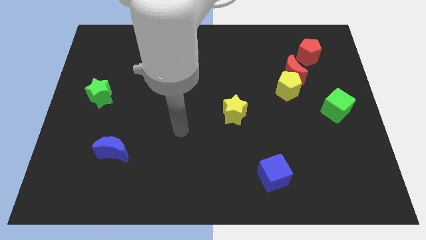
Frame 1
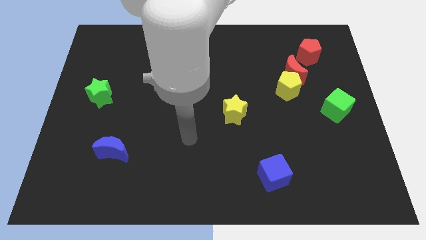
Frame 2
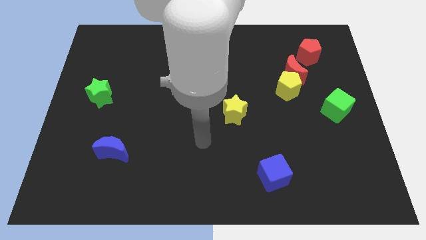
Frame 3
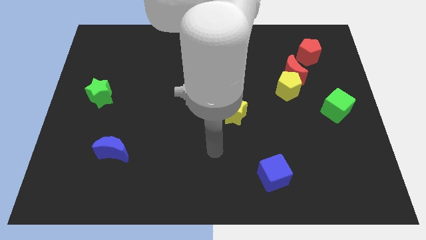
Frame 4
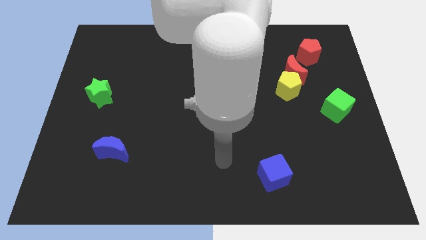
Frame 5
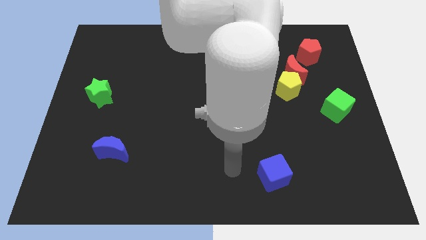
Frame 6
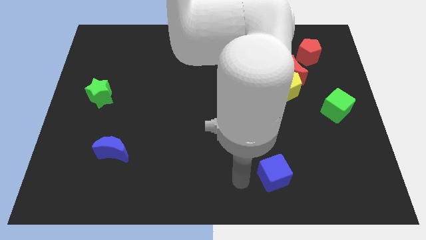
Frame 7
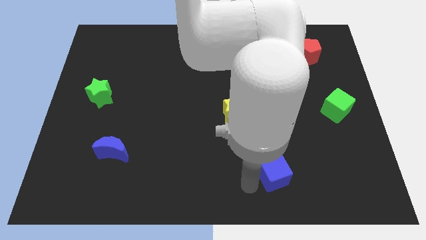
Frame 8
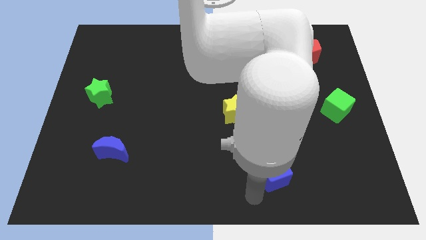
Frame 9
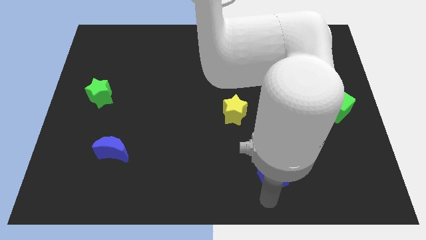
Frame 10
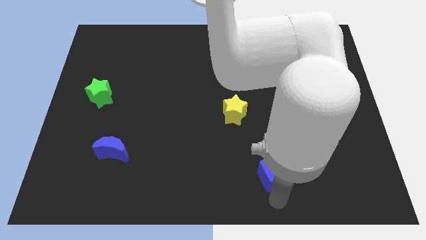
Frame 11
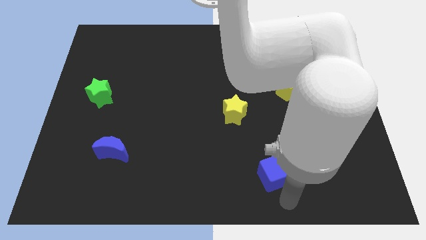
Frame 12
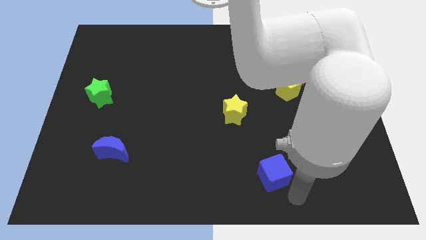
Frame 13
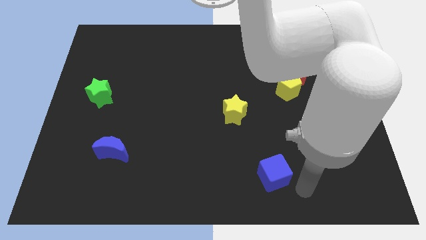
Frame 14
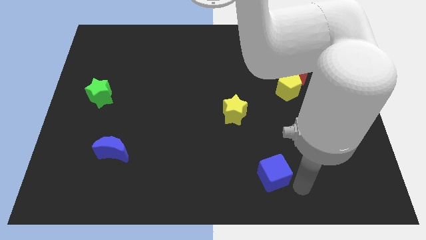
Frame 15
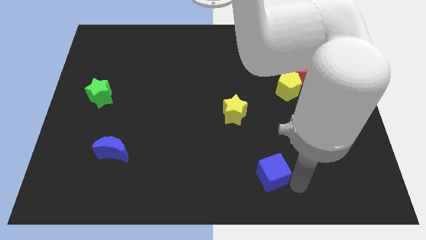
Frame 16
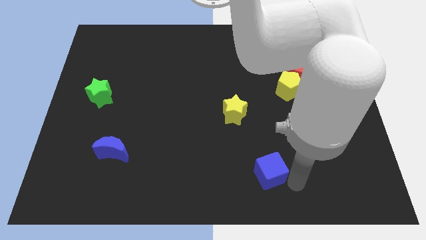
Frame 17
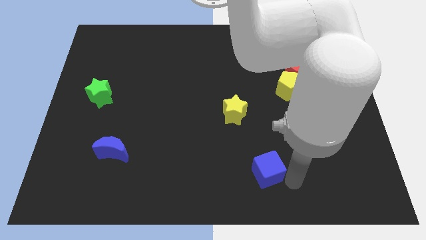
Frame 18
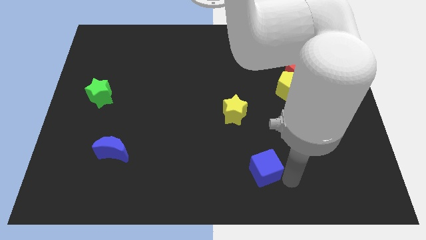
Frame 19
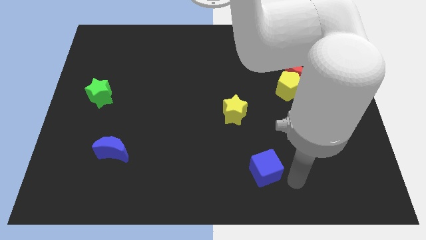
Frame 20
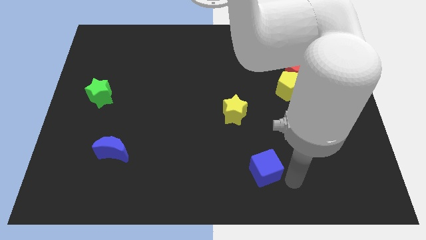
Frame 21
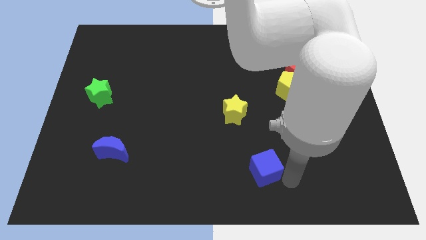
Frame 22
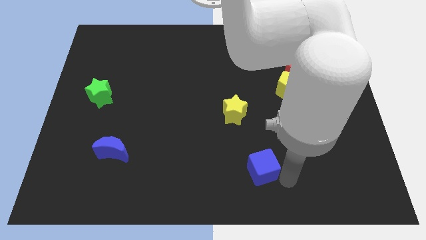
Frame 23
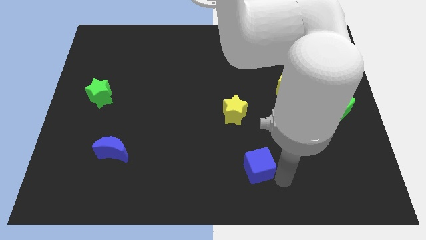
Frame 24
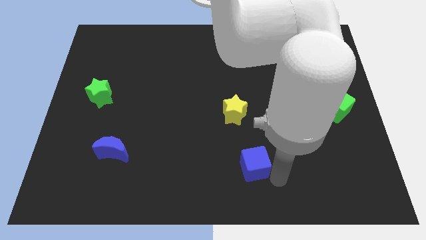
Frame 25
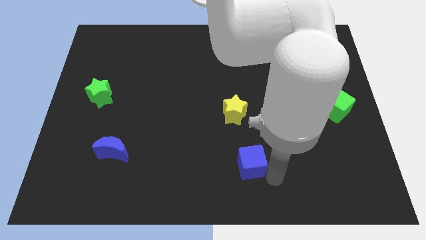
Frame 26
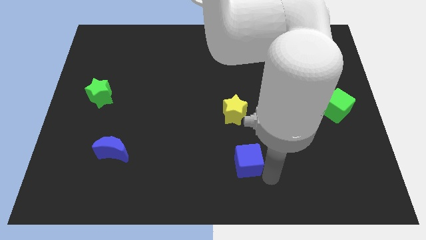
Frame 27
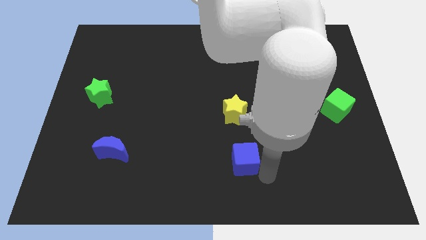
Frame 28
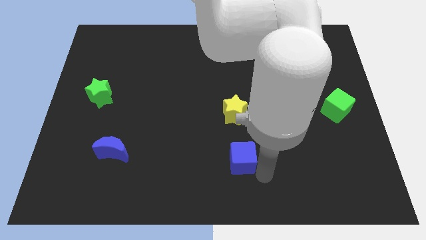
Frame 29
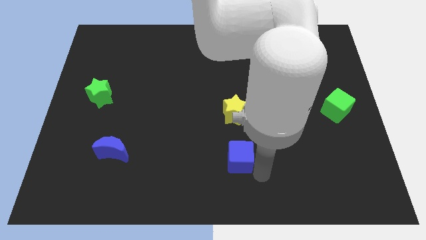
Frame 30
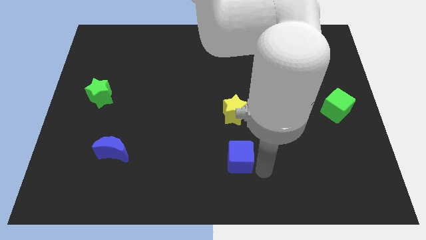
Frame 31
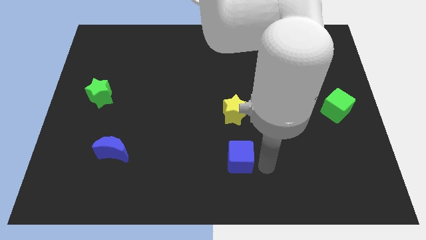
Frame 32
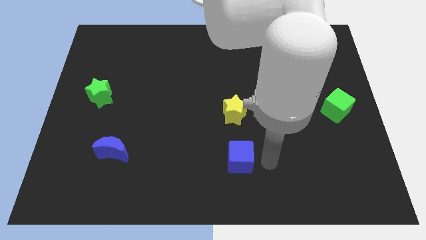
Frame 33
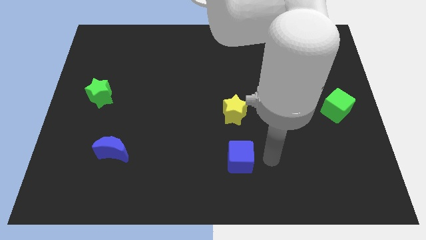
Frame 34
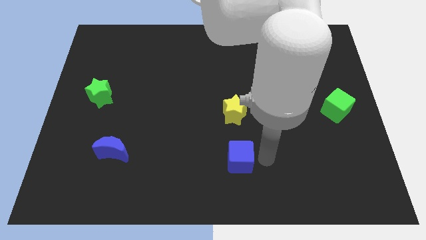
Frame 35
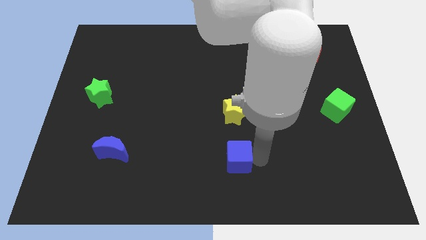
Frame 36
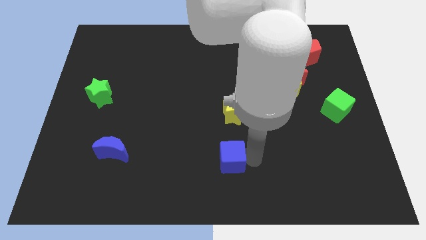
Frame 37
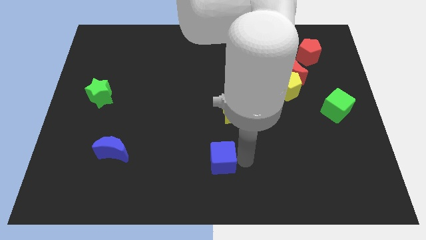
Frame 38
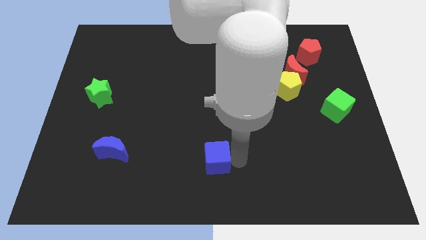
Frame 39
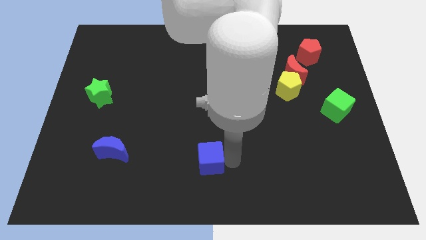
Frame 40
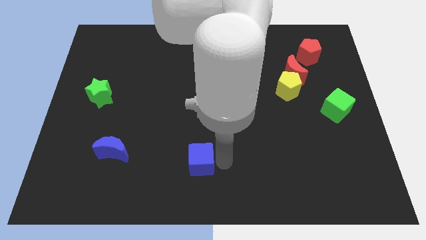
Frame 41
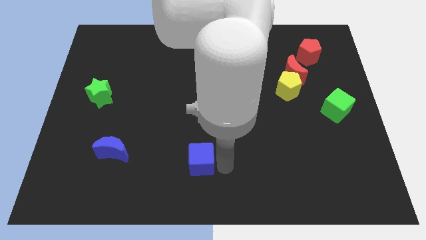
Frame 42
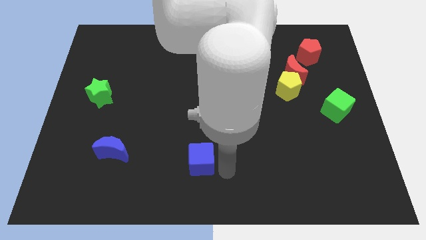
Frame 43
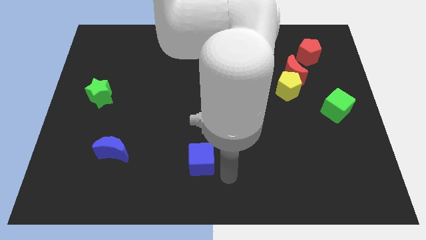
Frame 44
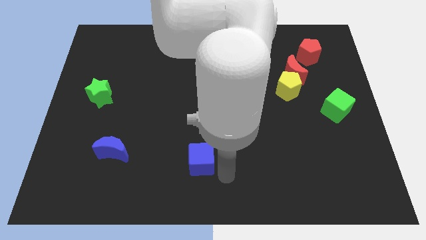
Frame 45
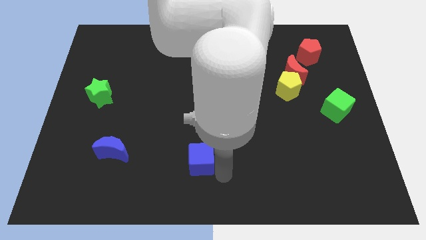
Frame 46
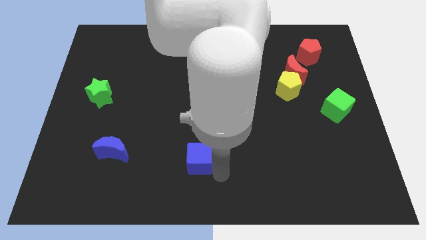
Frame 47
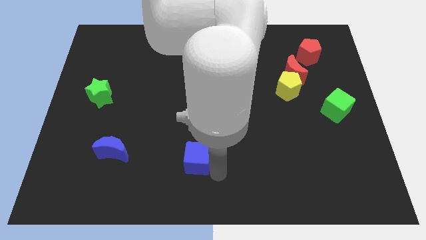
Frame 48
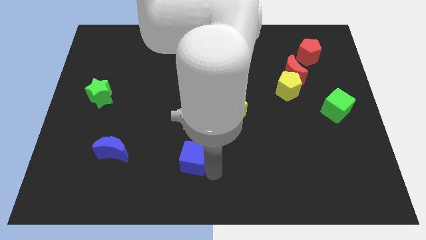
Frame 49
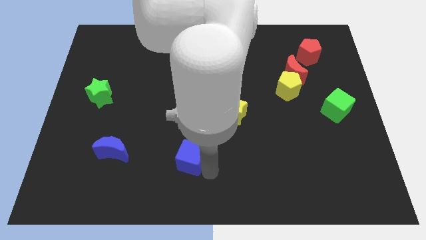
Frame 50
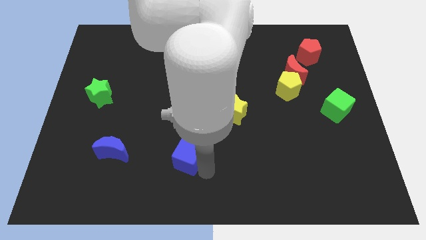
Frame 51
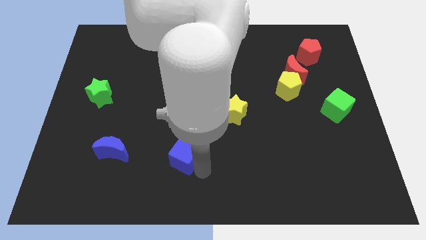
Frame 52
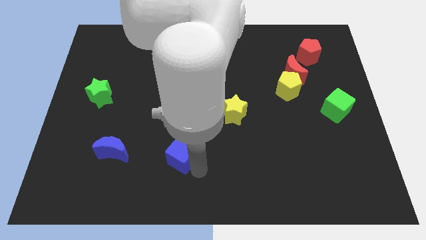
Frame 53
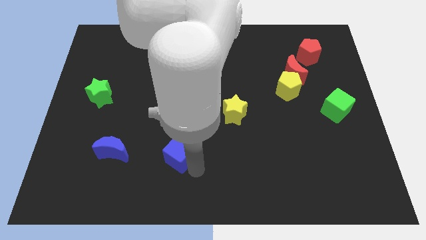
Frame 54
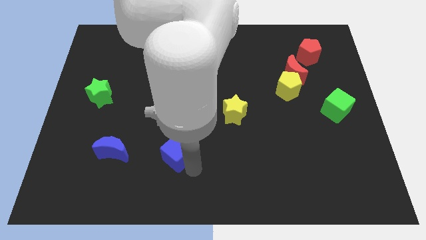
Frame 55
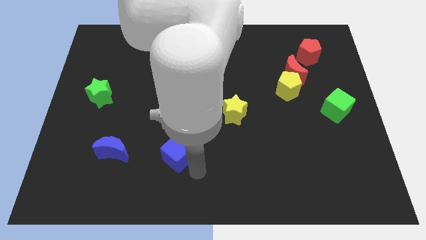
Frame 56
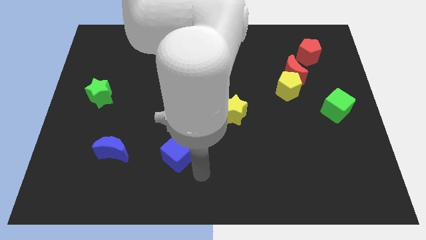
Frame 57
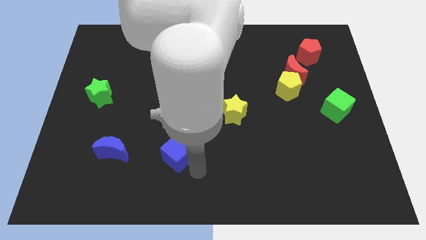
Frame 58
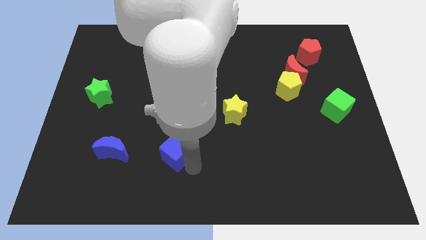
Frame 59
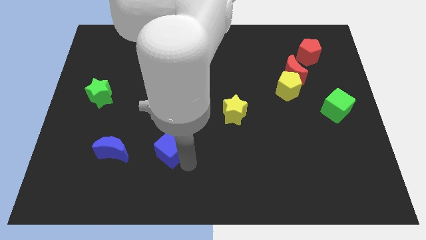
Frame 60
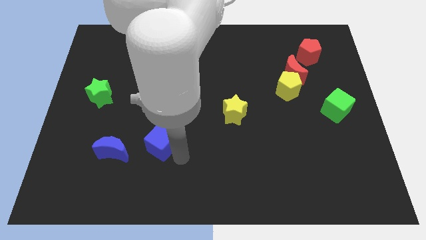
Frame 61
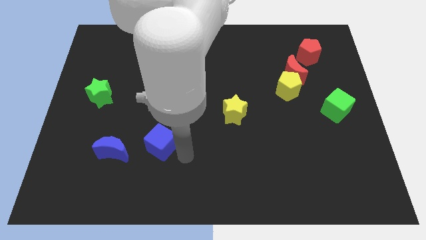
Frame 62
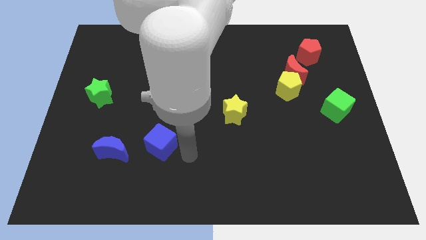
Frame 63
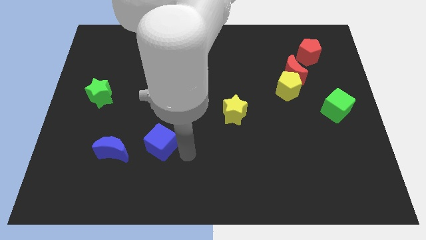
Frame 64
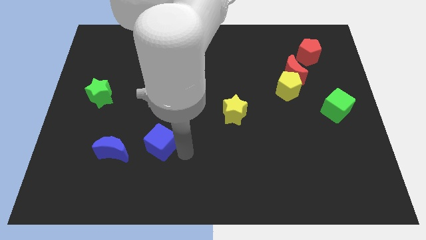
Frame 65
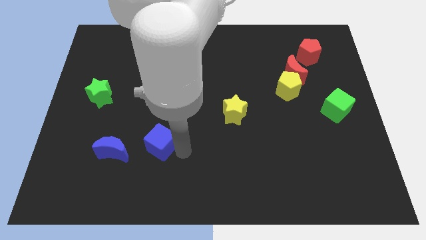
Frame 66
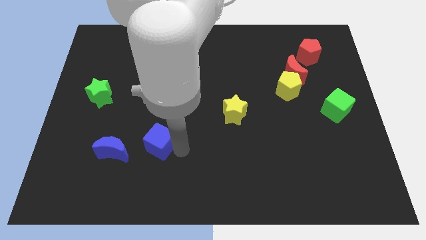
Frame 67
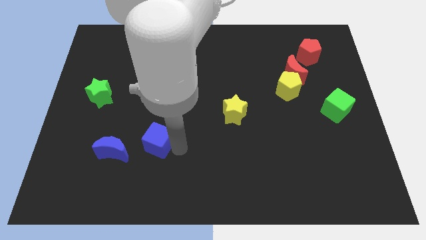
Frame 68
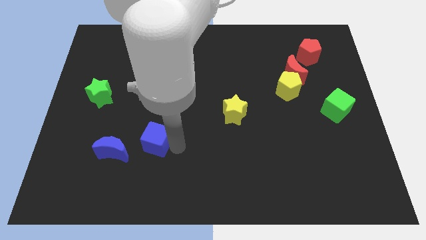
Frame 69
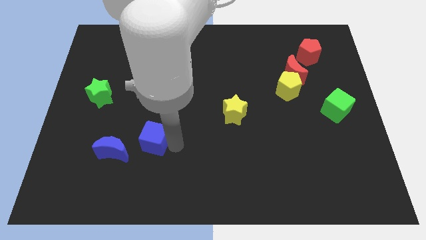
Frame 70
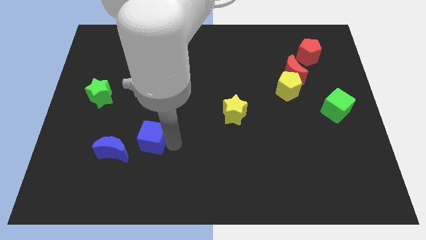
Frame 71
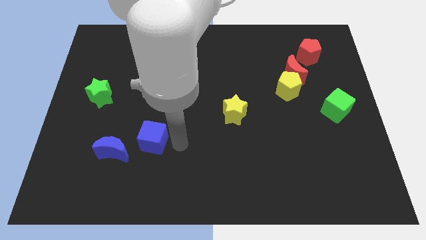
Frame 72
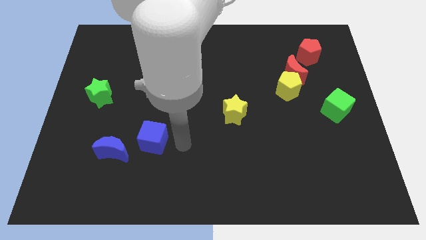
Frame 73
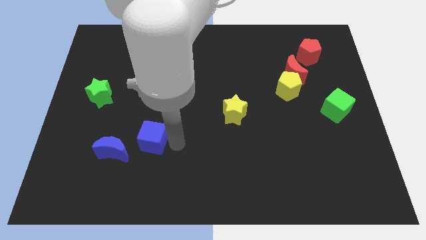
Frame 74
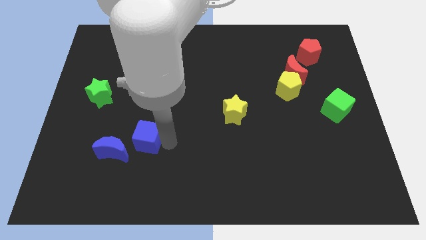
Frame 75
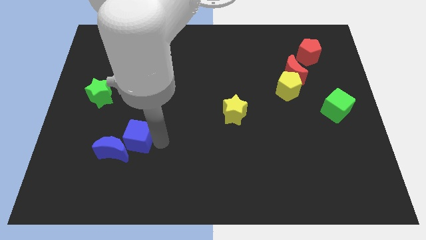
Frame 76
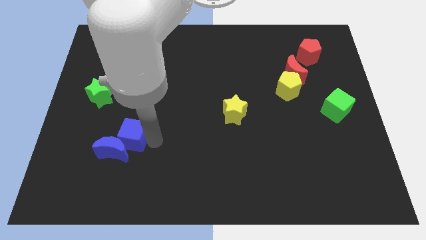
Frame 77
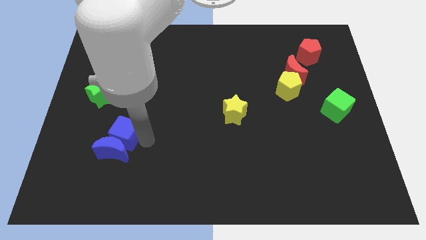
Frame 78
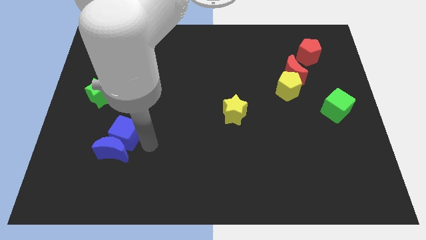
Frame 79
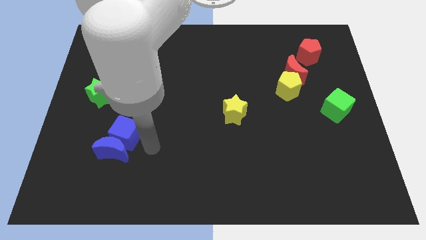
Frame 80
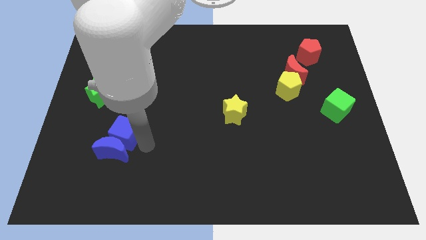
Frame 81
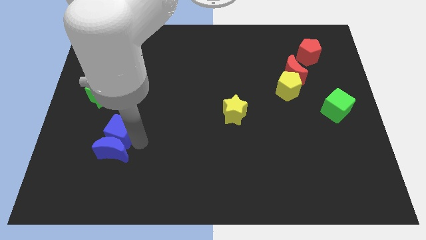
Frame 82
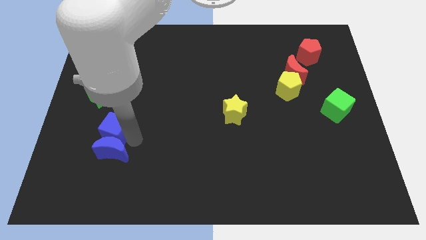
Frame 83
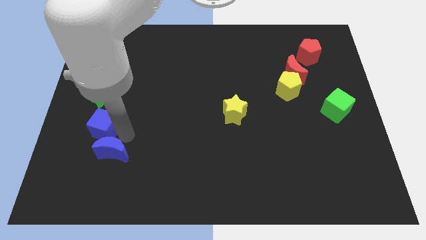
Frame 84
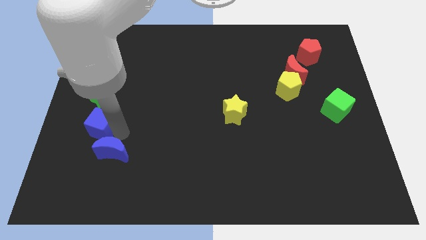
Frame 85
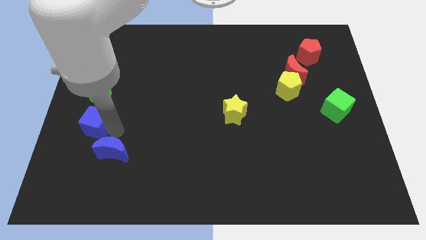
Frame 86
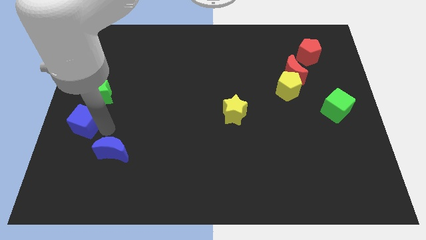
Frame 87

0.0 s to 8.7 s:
move the blue cube to the left side of the board
